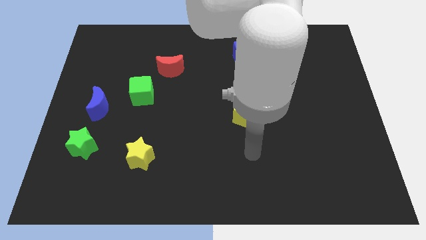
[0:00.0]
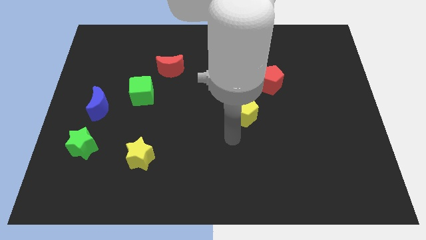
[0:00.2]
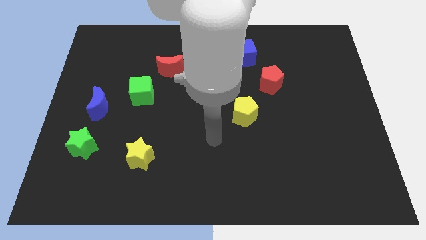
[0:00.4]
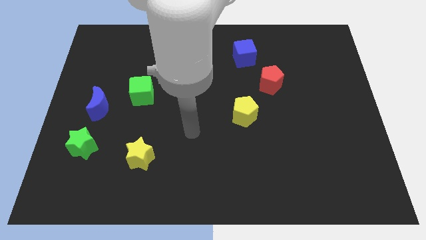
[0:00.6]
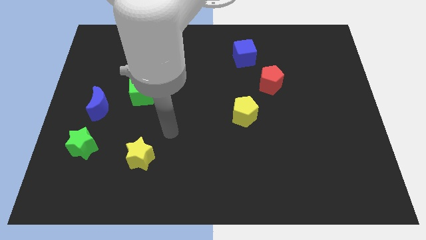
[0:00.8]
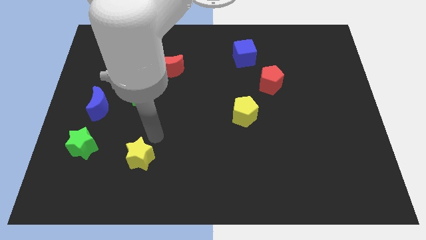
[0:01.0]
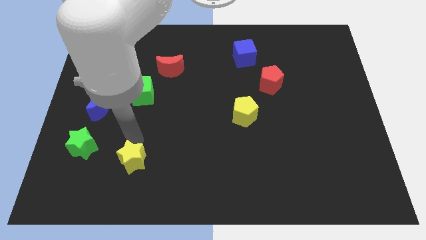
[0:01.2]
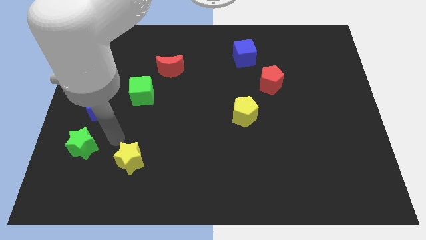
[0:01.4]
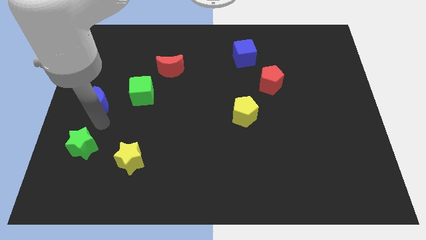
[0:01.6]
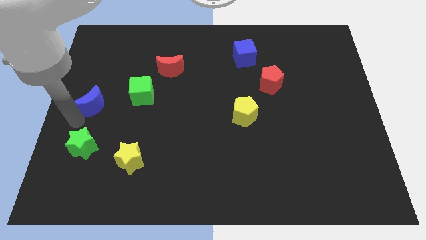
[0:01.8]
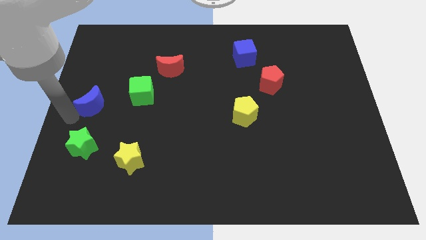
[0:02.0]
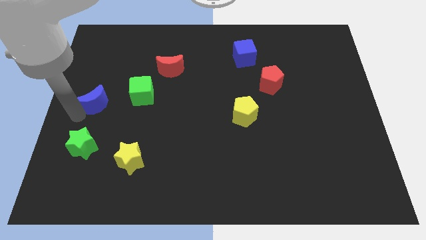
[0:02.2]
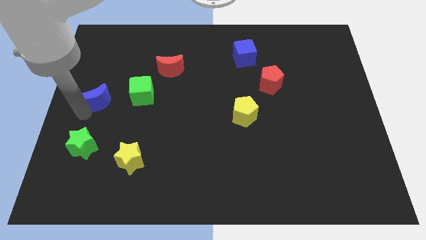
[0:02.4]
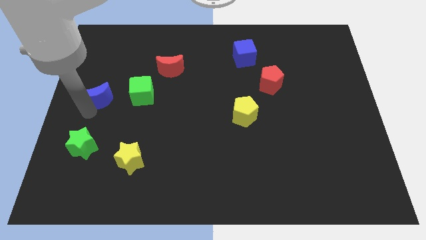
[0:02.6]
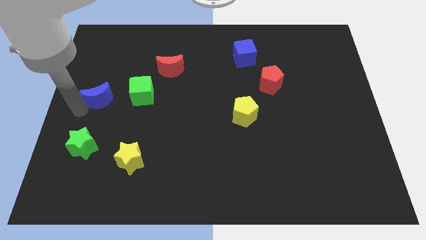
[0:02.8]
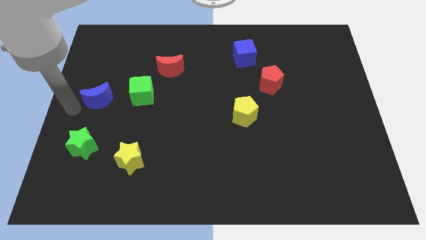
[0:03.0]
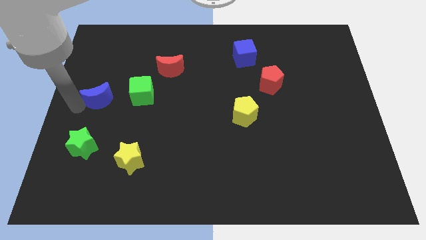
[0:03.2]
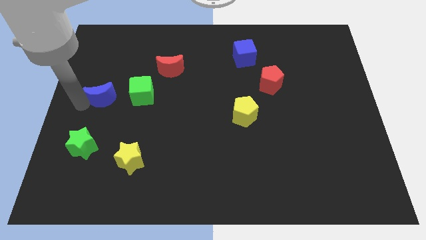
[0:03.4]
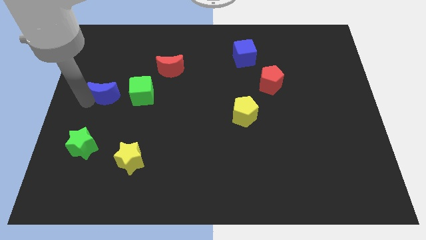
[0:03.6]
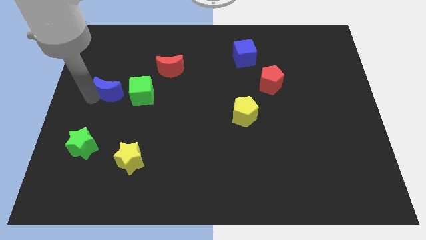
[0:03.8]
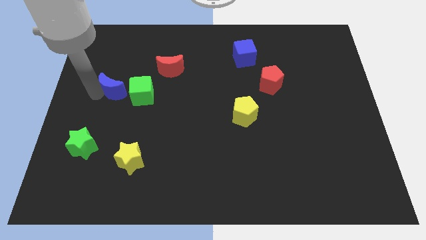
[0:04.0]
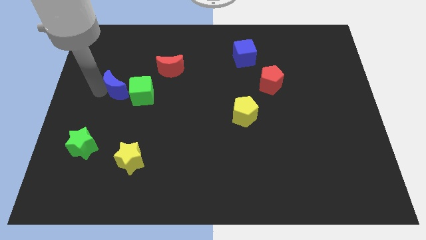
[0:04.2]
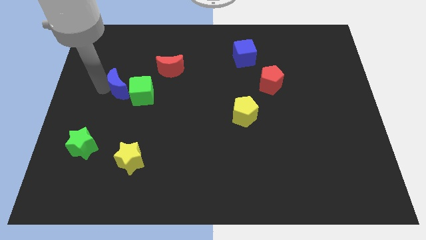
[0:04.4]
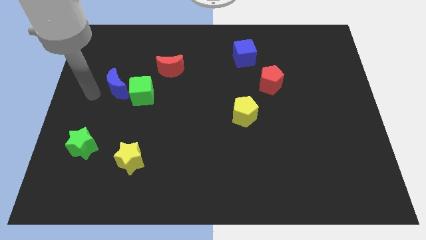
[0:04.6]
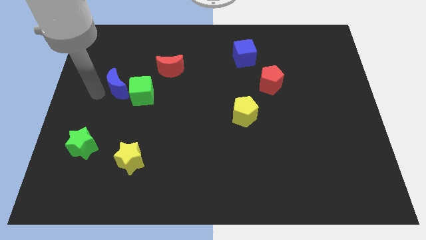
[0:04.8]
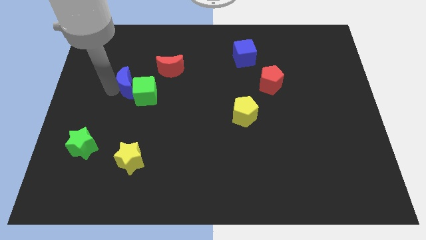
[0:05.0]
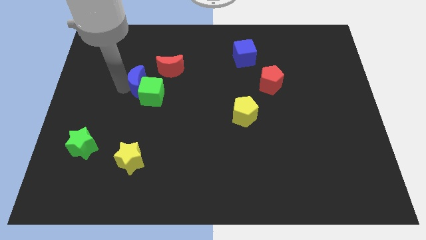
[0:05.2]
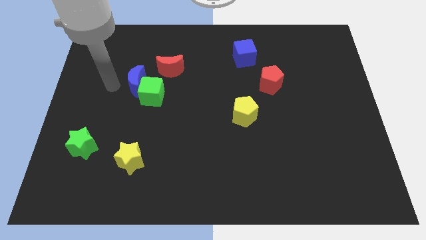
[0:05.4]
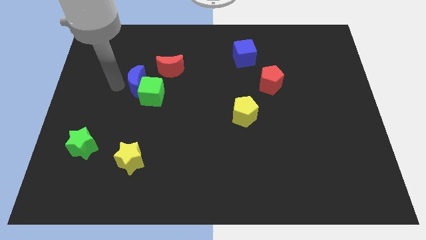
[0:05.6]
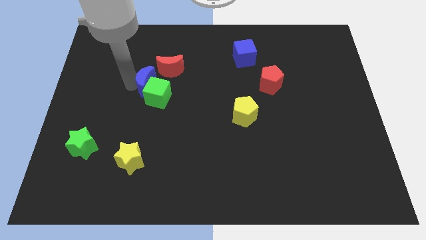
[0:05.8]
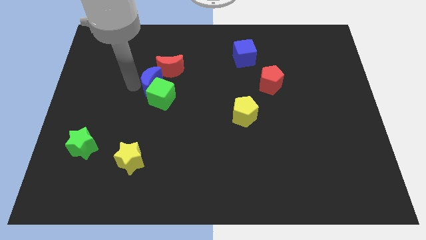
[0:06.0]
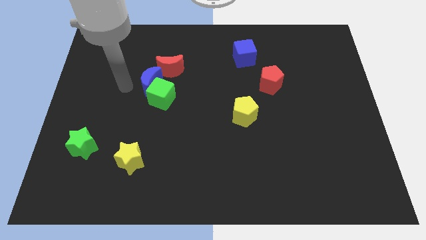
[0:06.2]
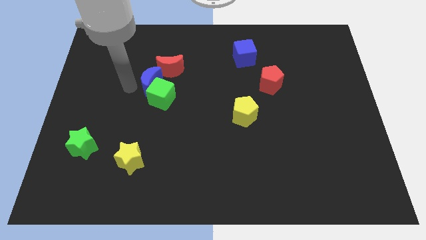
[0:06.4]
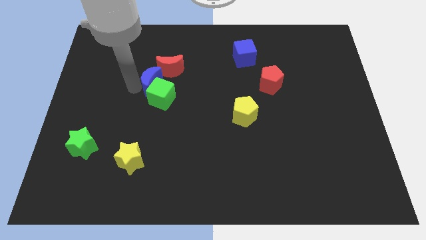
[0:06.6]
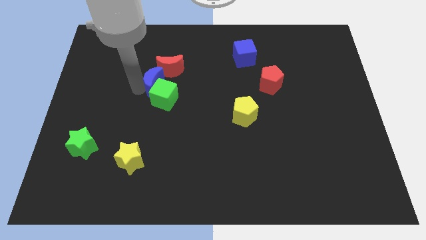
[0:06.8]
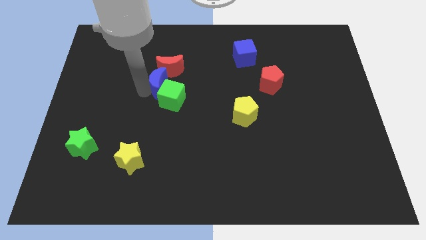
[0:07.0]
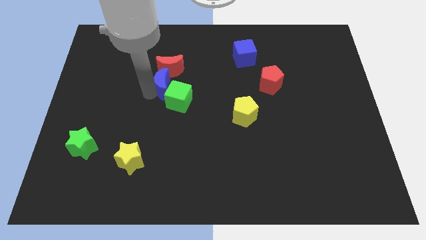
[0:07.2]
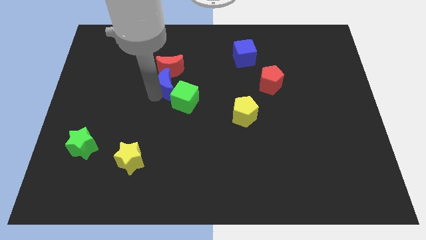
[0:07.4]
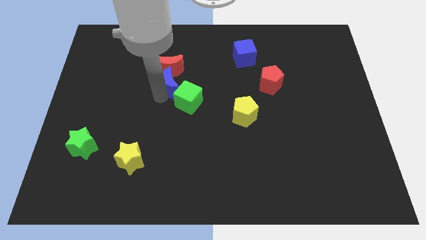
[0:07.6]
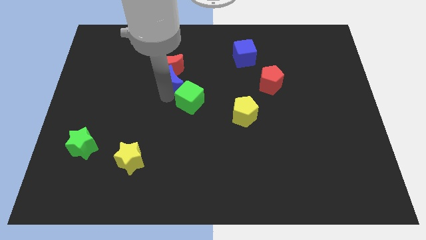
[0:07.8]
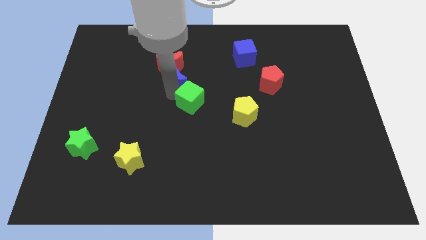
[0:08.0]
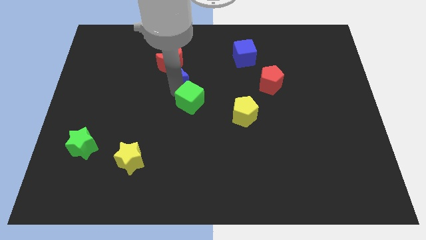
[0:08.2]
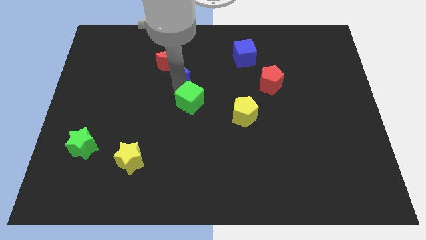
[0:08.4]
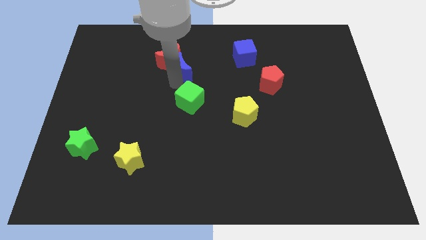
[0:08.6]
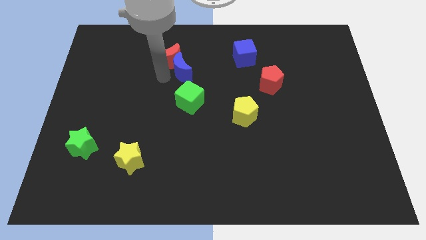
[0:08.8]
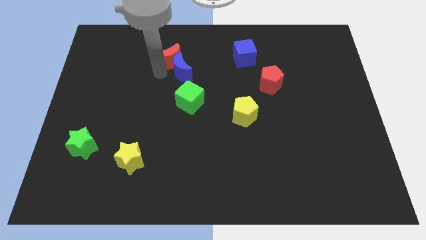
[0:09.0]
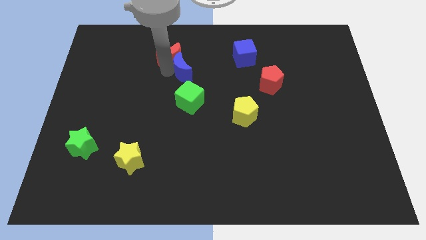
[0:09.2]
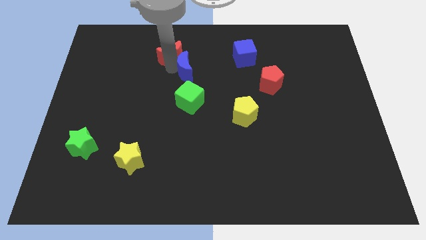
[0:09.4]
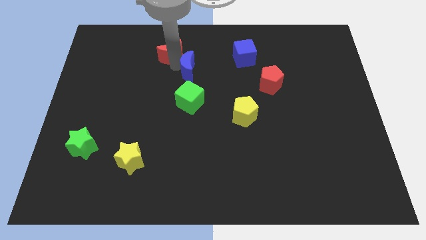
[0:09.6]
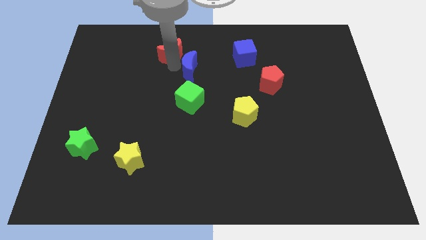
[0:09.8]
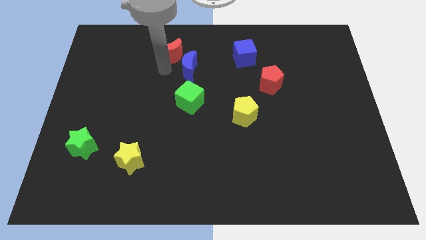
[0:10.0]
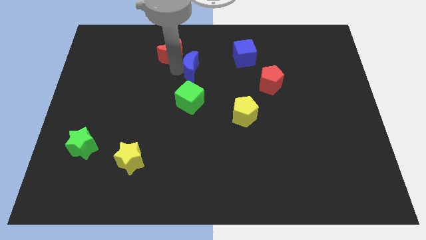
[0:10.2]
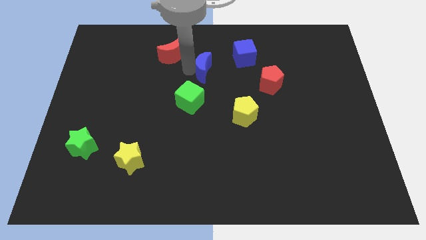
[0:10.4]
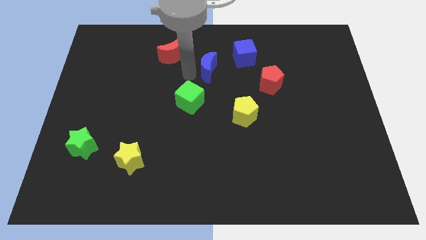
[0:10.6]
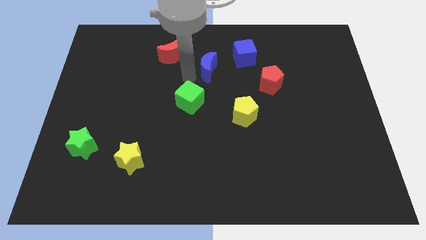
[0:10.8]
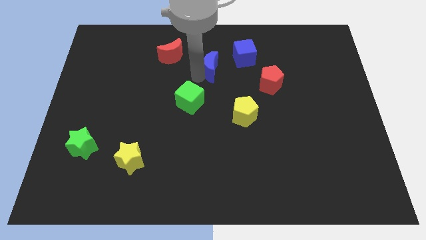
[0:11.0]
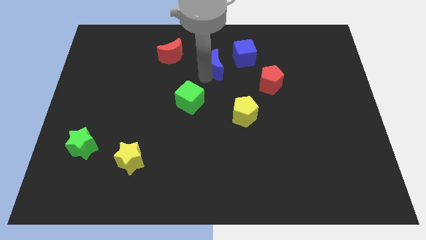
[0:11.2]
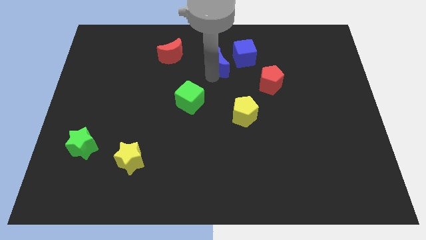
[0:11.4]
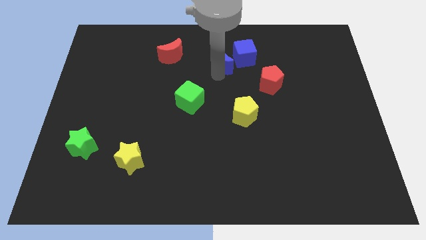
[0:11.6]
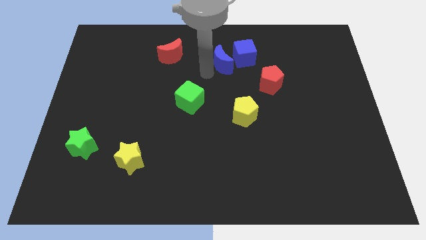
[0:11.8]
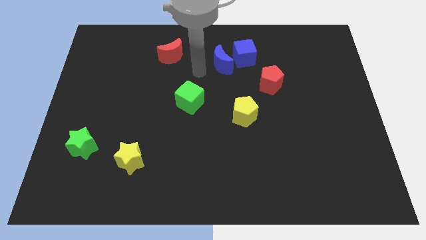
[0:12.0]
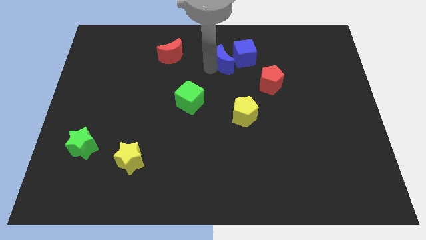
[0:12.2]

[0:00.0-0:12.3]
move the blue moon close to the blue cube

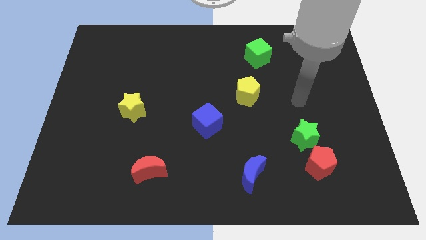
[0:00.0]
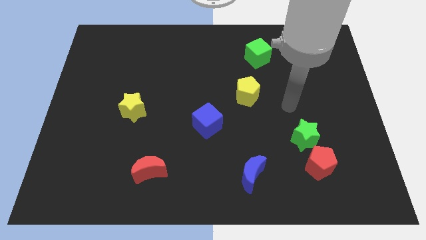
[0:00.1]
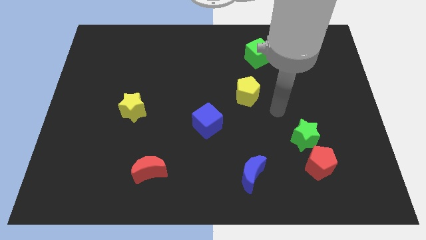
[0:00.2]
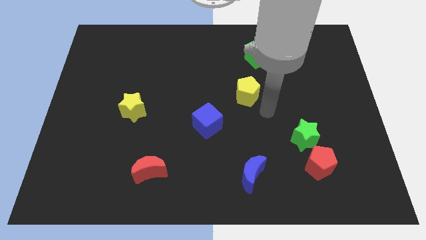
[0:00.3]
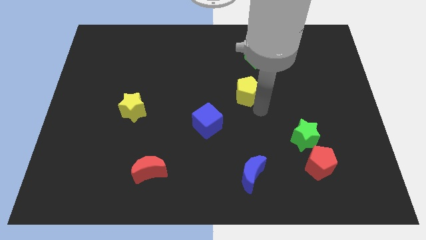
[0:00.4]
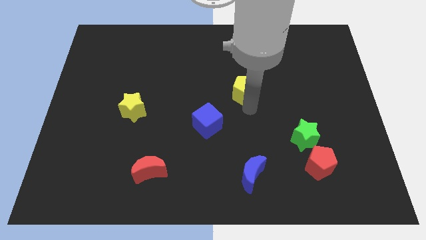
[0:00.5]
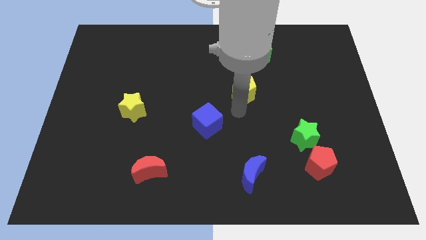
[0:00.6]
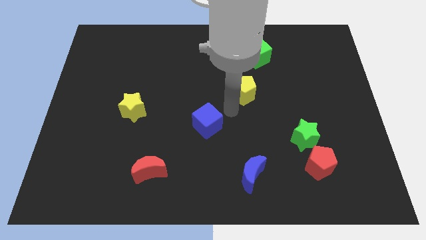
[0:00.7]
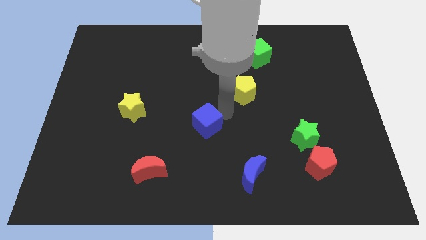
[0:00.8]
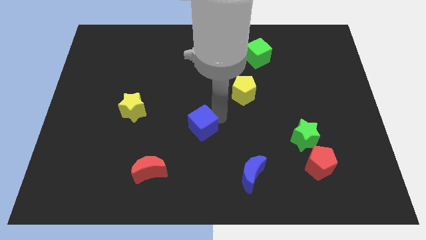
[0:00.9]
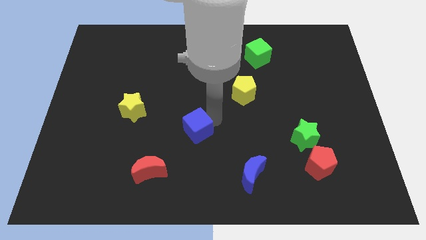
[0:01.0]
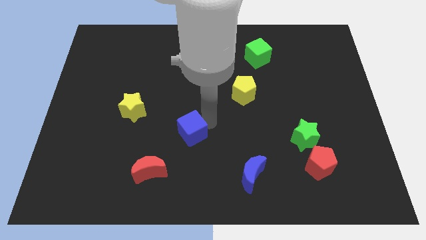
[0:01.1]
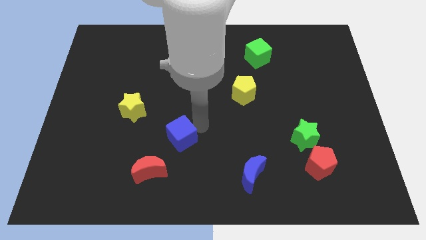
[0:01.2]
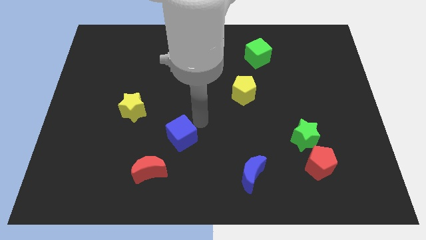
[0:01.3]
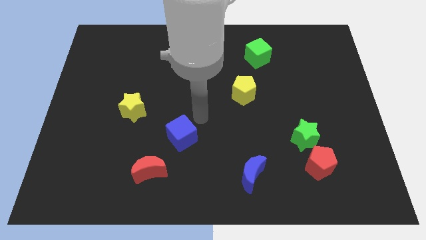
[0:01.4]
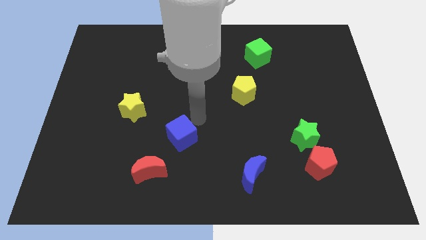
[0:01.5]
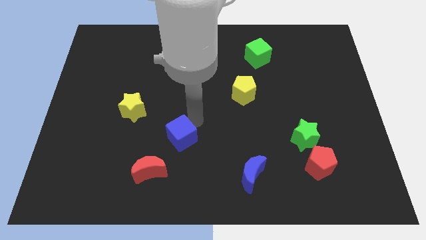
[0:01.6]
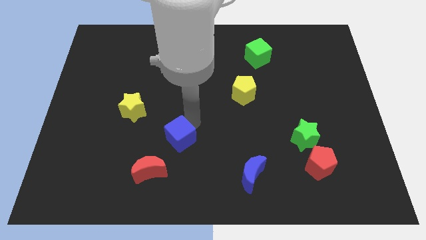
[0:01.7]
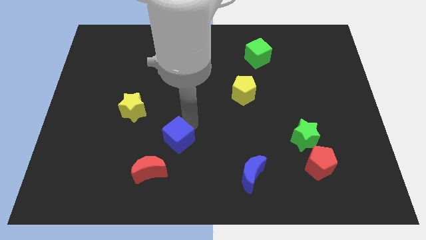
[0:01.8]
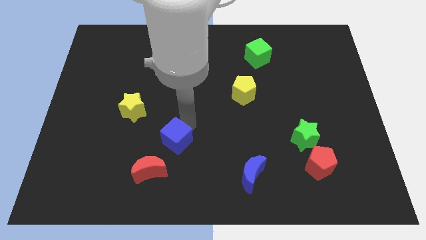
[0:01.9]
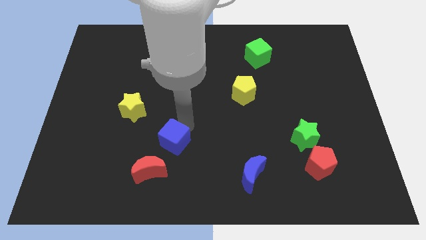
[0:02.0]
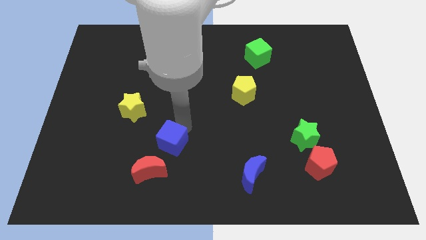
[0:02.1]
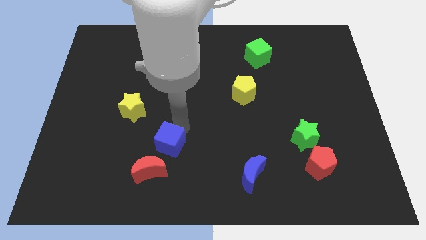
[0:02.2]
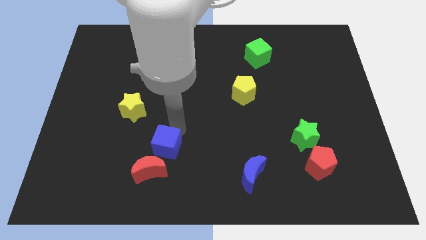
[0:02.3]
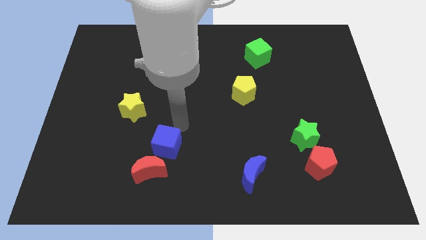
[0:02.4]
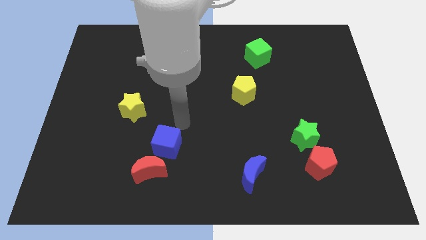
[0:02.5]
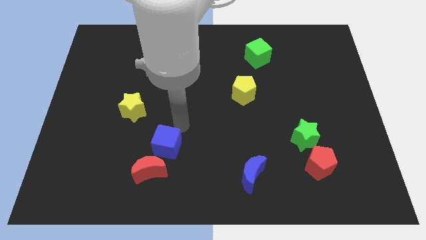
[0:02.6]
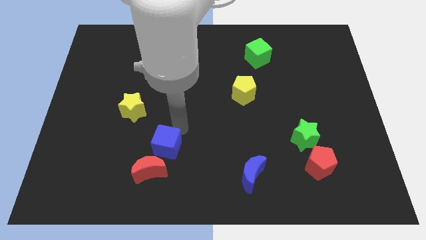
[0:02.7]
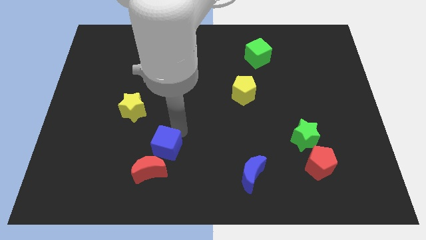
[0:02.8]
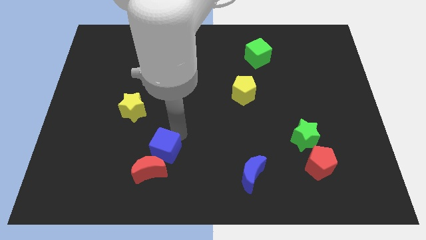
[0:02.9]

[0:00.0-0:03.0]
slide the blue cube to the red moon
